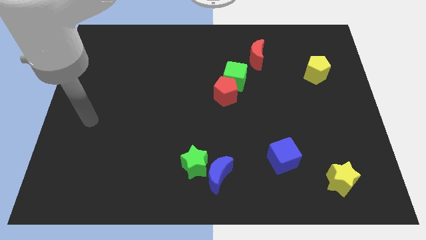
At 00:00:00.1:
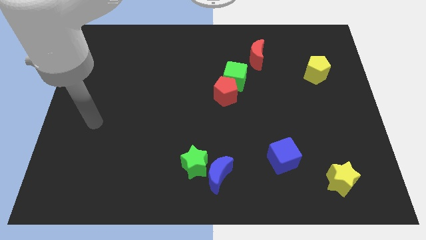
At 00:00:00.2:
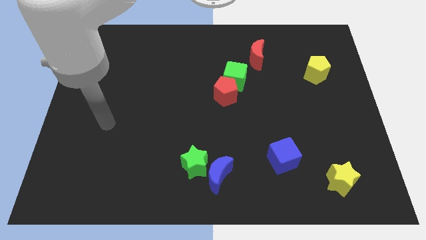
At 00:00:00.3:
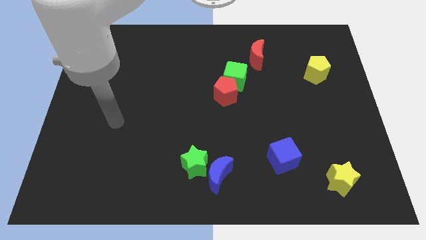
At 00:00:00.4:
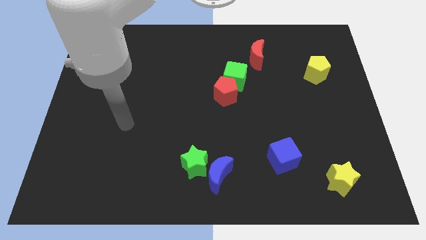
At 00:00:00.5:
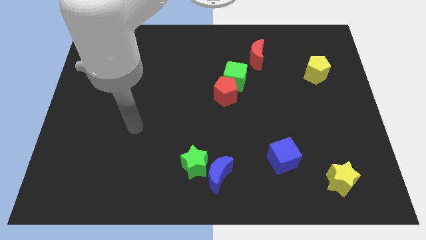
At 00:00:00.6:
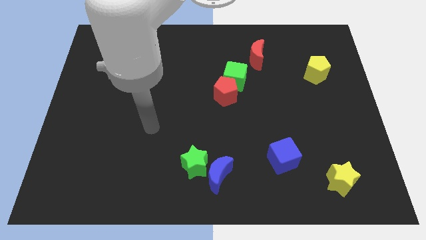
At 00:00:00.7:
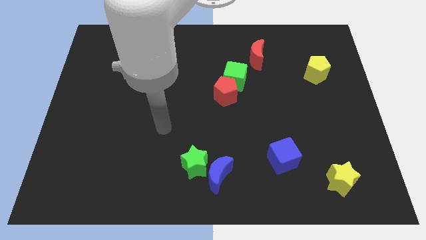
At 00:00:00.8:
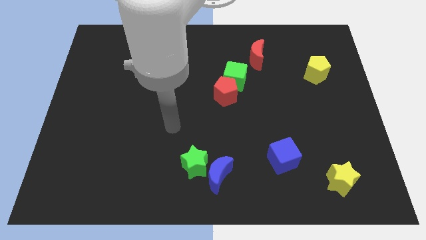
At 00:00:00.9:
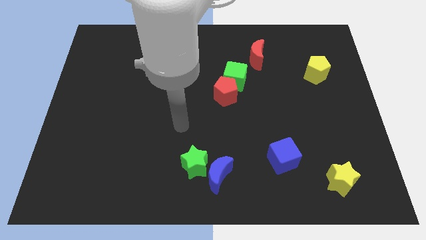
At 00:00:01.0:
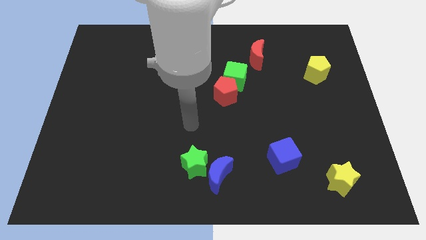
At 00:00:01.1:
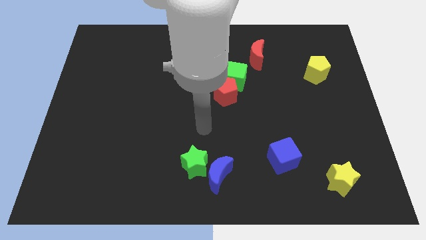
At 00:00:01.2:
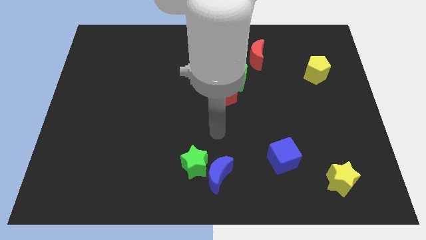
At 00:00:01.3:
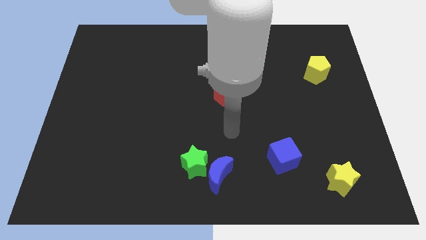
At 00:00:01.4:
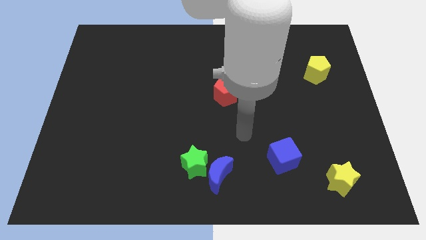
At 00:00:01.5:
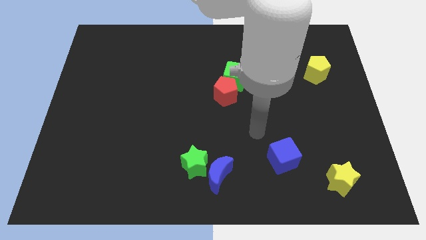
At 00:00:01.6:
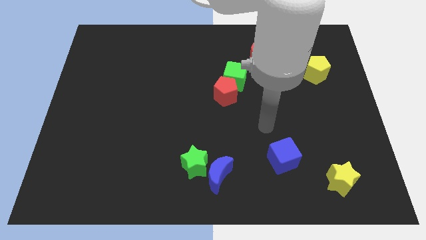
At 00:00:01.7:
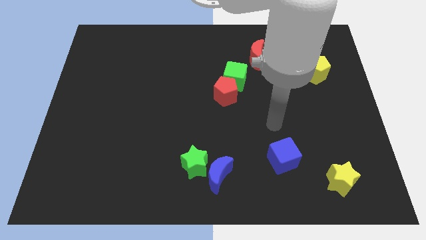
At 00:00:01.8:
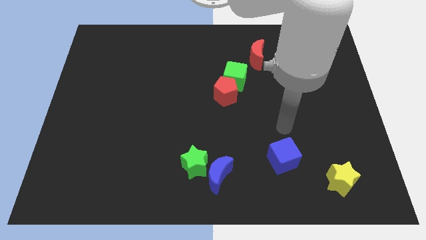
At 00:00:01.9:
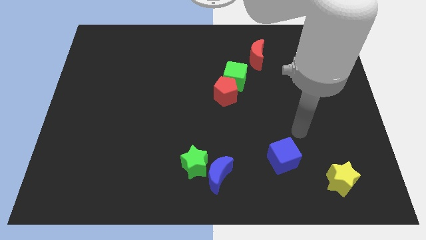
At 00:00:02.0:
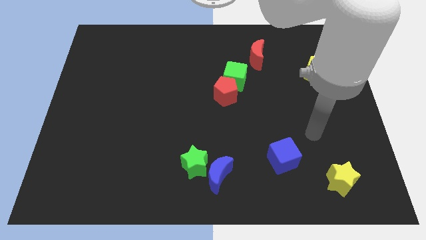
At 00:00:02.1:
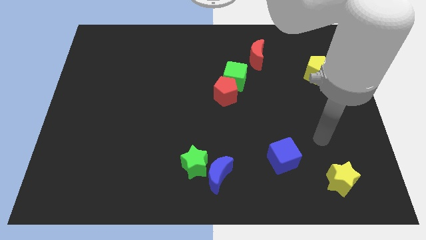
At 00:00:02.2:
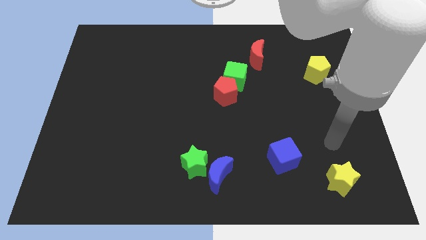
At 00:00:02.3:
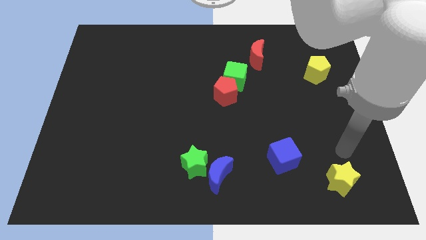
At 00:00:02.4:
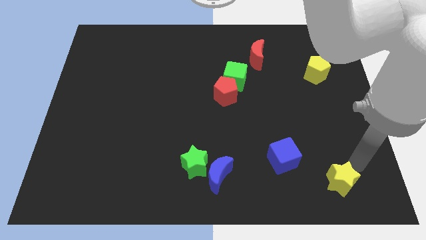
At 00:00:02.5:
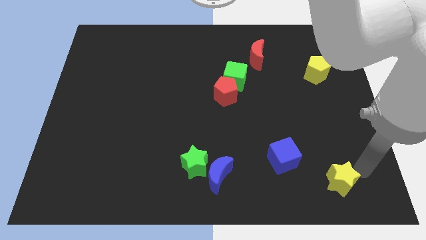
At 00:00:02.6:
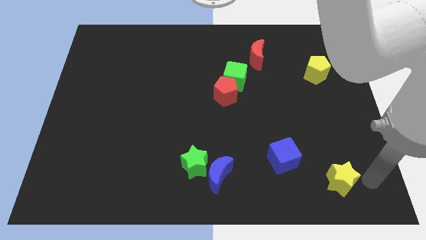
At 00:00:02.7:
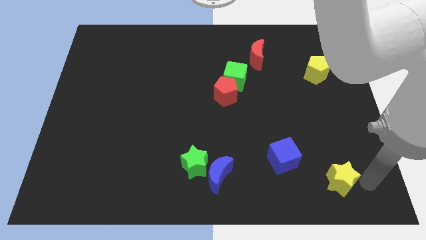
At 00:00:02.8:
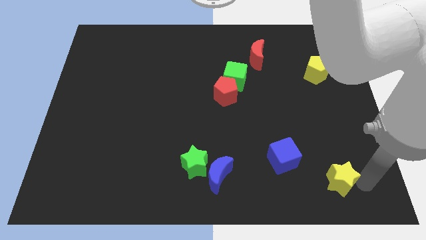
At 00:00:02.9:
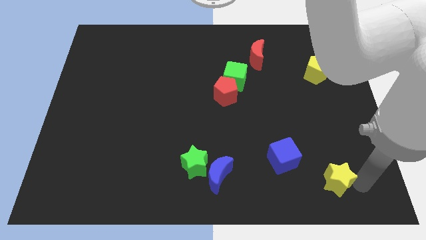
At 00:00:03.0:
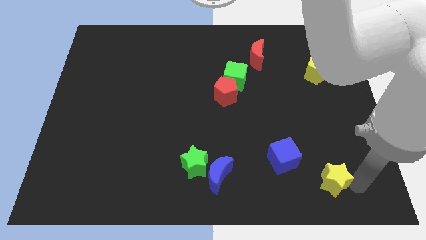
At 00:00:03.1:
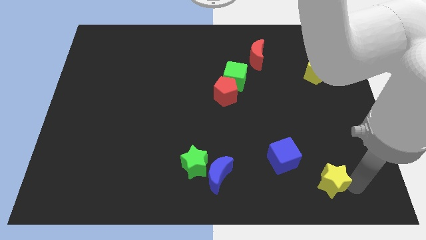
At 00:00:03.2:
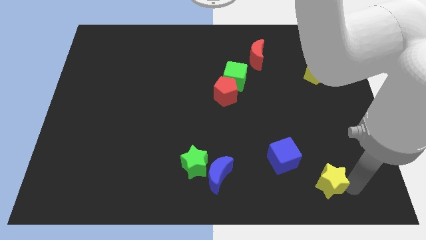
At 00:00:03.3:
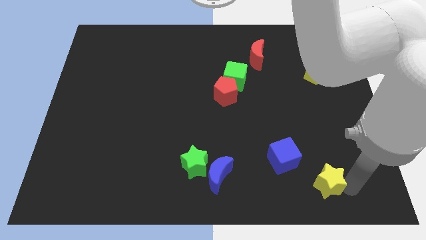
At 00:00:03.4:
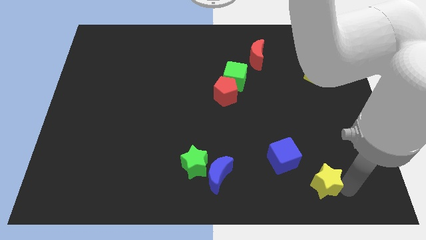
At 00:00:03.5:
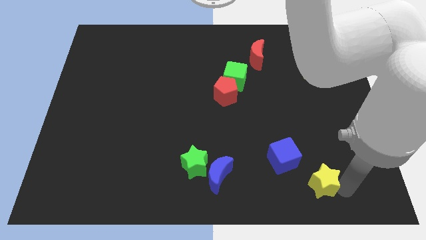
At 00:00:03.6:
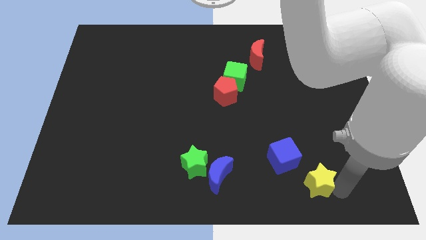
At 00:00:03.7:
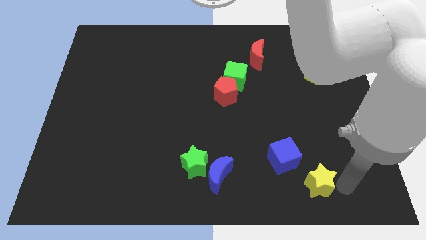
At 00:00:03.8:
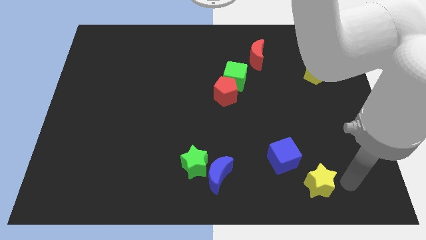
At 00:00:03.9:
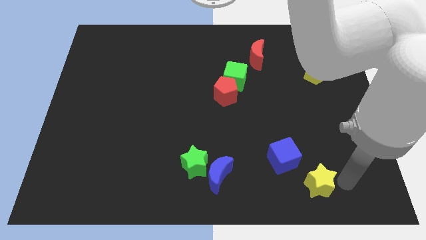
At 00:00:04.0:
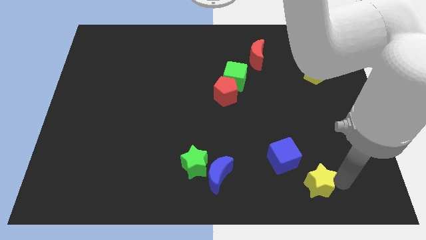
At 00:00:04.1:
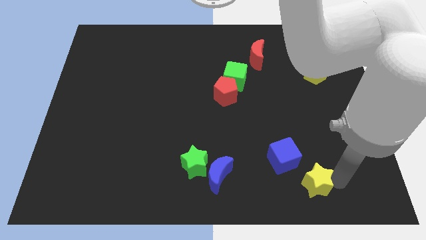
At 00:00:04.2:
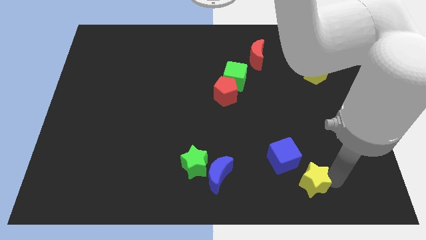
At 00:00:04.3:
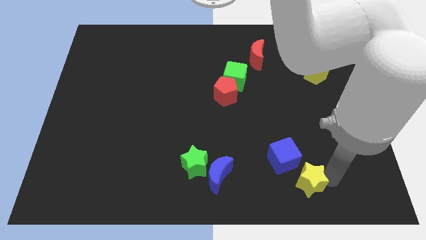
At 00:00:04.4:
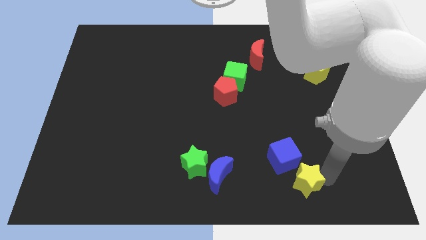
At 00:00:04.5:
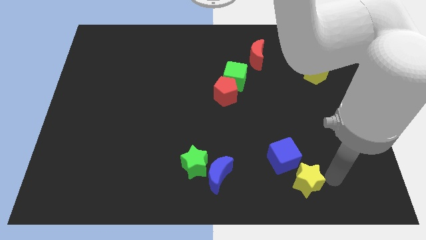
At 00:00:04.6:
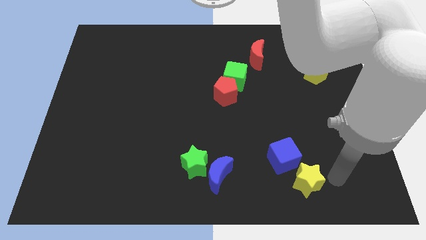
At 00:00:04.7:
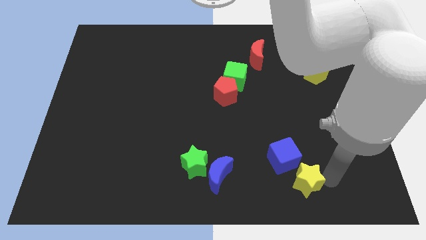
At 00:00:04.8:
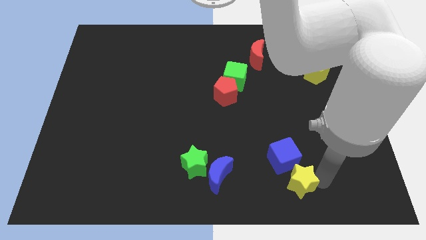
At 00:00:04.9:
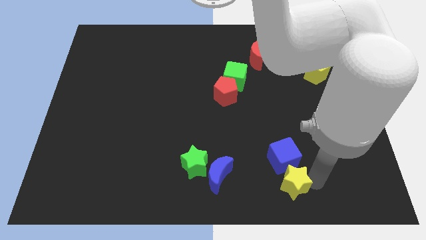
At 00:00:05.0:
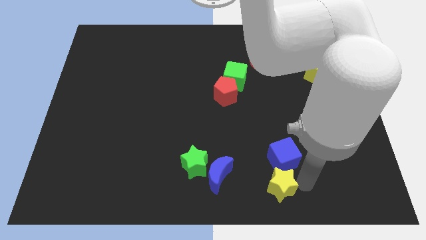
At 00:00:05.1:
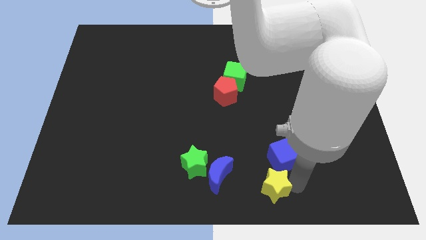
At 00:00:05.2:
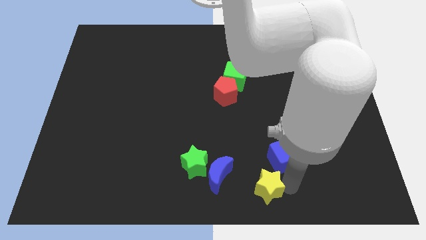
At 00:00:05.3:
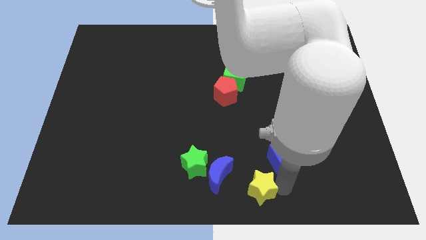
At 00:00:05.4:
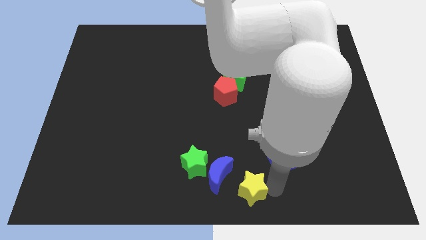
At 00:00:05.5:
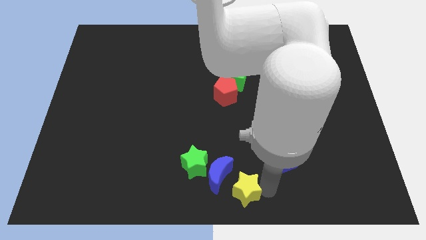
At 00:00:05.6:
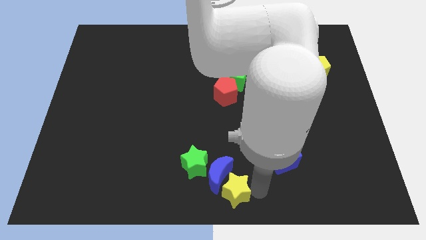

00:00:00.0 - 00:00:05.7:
move the yellow star left

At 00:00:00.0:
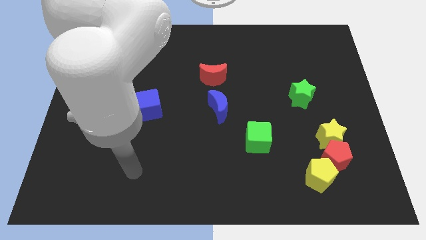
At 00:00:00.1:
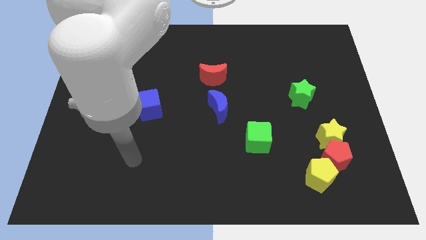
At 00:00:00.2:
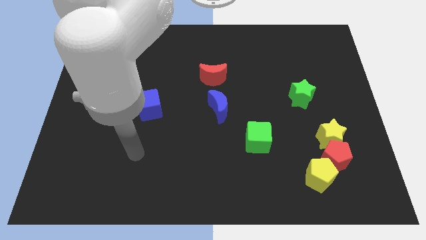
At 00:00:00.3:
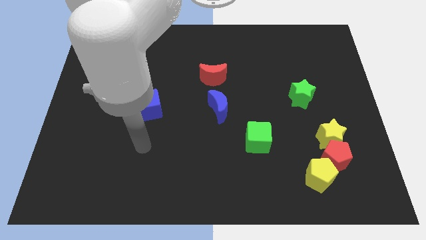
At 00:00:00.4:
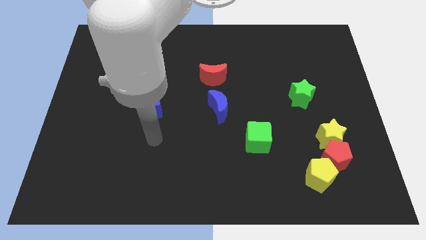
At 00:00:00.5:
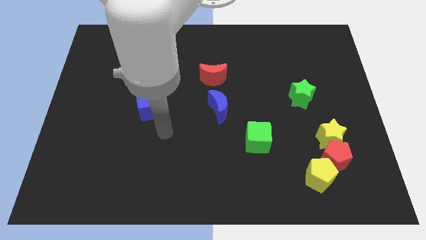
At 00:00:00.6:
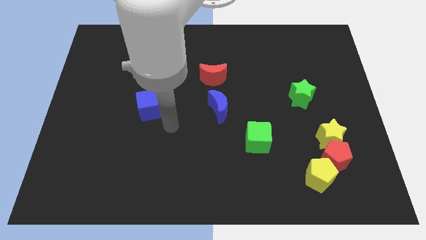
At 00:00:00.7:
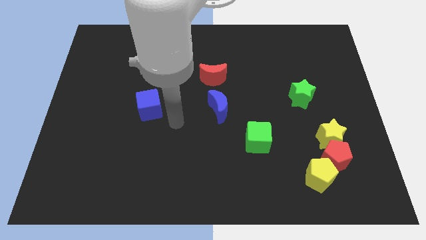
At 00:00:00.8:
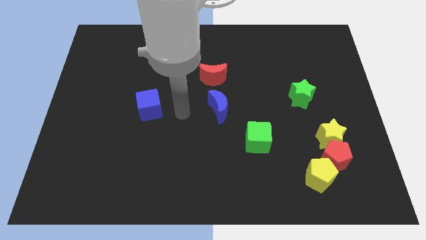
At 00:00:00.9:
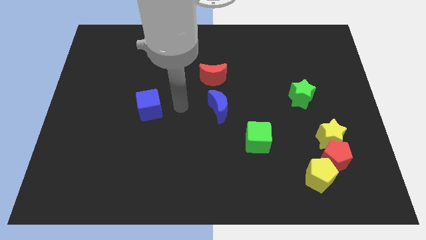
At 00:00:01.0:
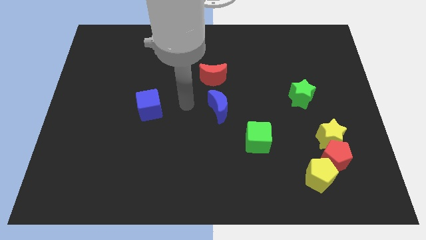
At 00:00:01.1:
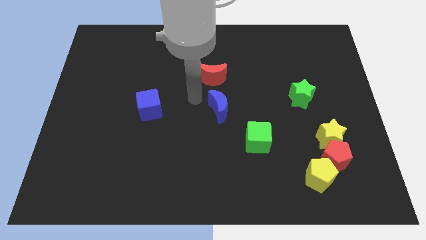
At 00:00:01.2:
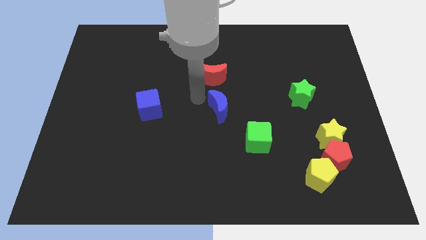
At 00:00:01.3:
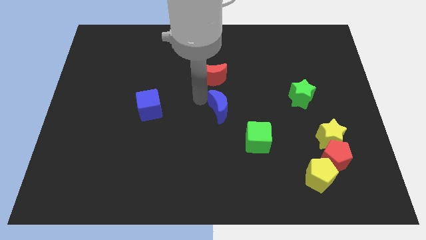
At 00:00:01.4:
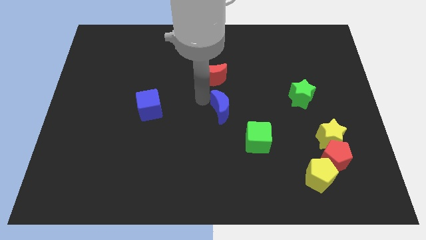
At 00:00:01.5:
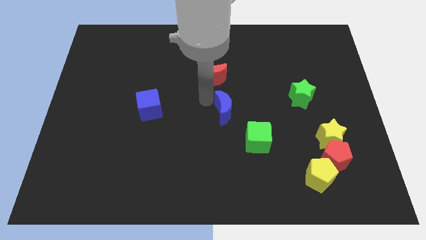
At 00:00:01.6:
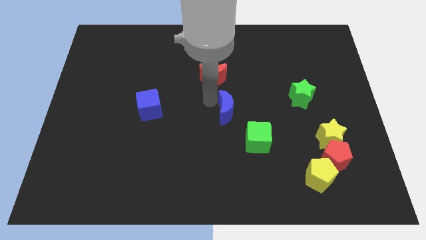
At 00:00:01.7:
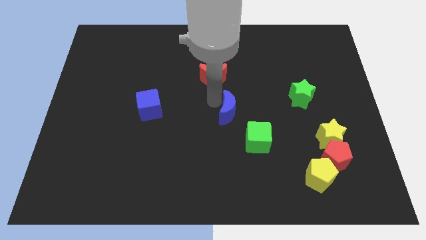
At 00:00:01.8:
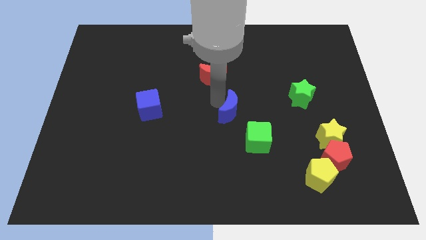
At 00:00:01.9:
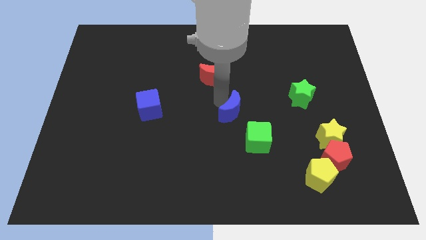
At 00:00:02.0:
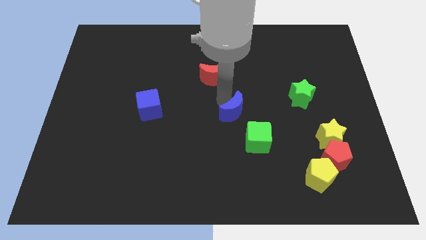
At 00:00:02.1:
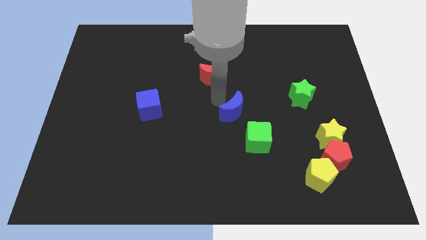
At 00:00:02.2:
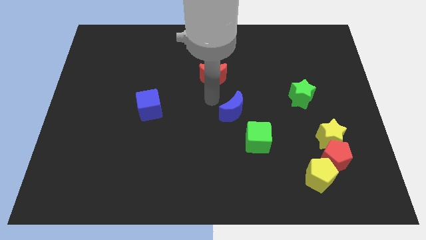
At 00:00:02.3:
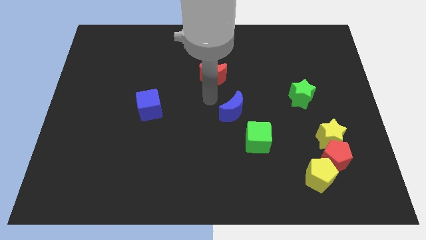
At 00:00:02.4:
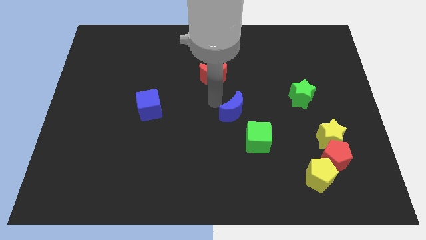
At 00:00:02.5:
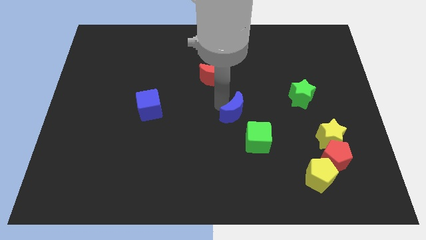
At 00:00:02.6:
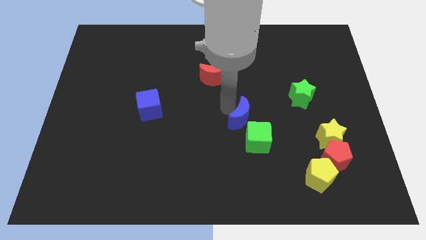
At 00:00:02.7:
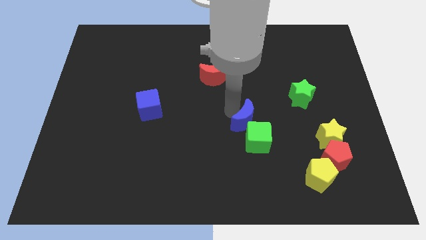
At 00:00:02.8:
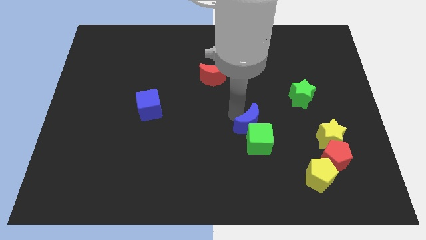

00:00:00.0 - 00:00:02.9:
slightly push the blue moon diagonally downwards and to the right

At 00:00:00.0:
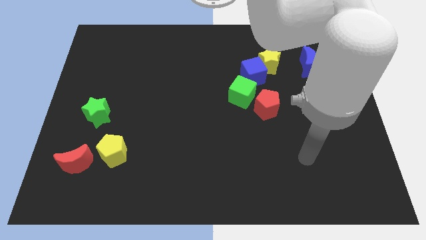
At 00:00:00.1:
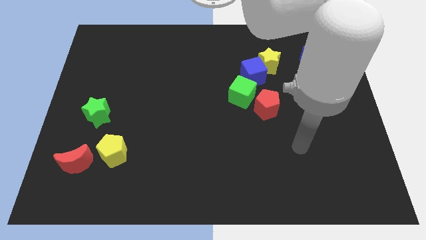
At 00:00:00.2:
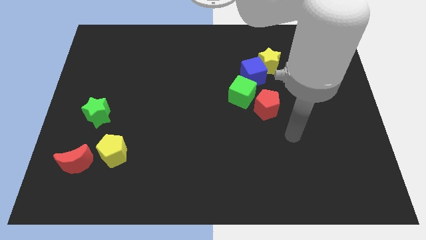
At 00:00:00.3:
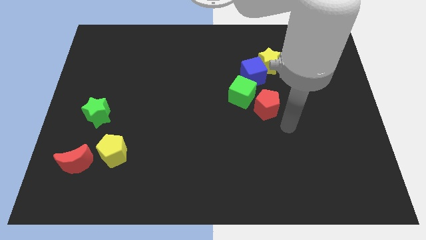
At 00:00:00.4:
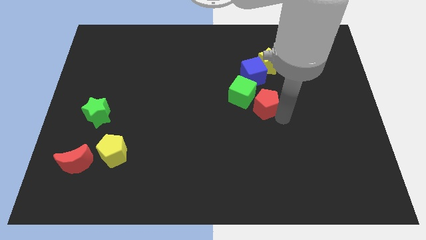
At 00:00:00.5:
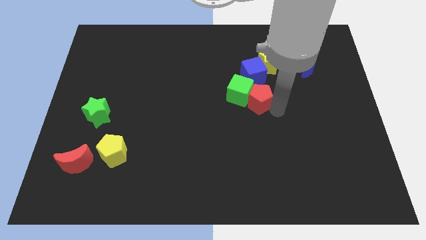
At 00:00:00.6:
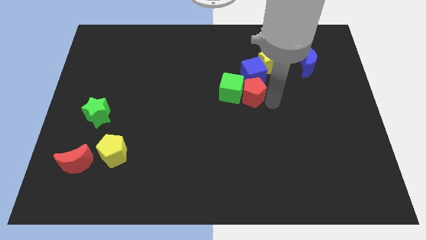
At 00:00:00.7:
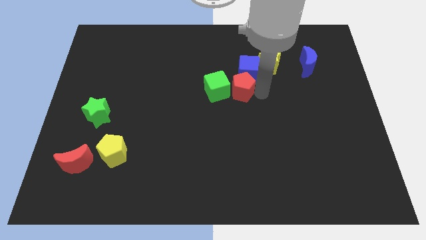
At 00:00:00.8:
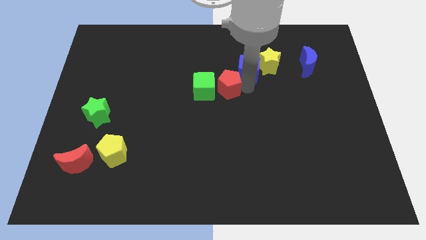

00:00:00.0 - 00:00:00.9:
slightly slide the green cube left
